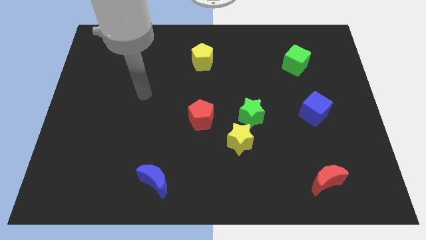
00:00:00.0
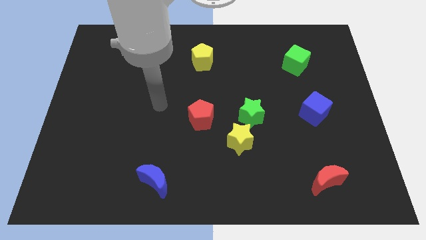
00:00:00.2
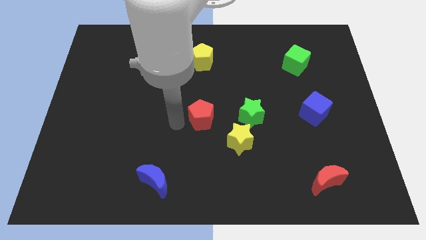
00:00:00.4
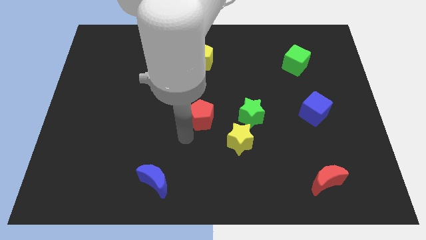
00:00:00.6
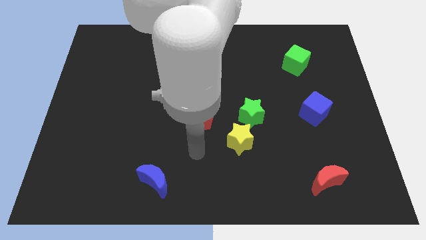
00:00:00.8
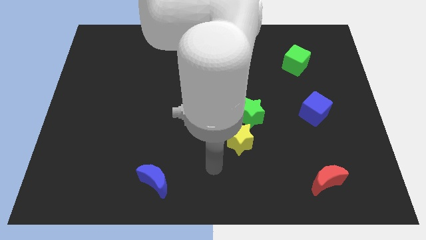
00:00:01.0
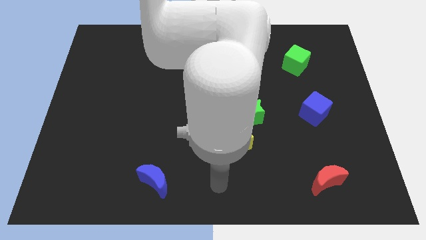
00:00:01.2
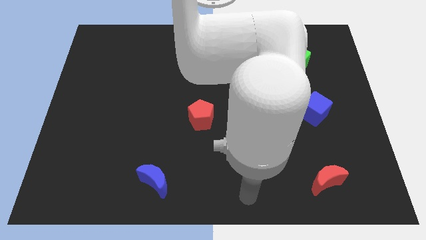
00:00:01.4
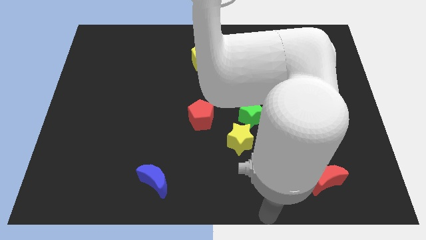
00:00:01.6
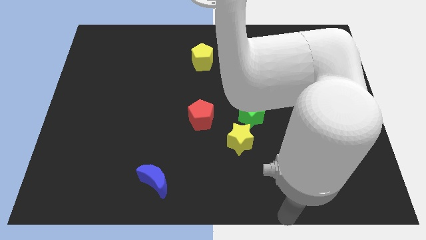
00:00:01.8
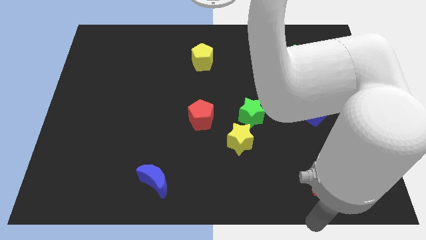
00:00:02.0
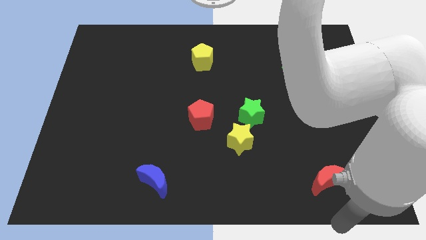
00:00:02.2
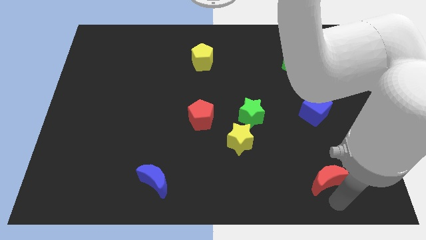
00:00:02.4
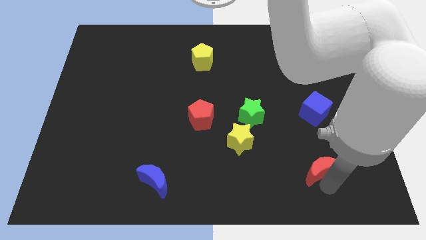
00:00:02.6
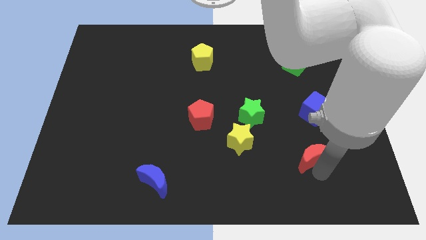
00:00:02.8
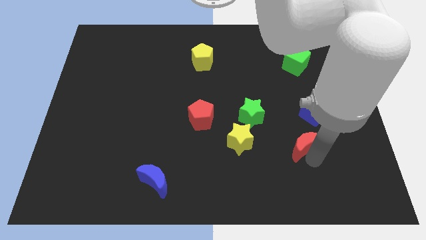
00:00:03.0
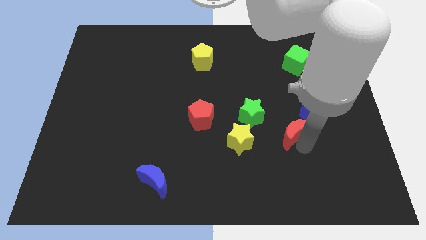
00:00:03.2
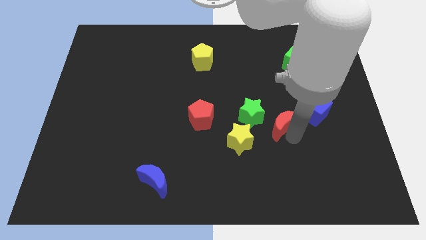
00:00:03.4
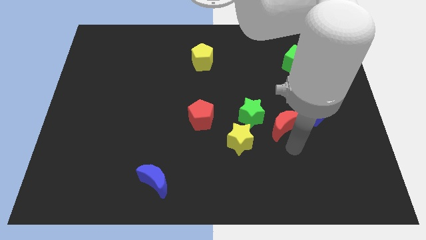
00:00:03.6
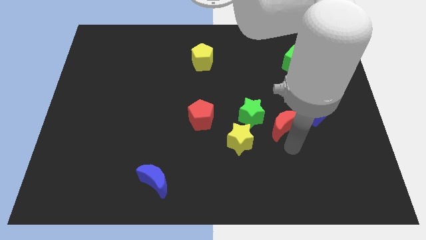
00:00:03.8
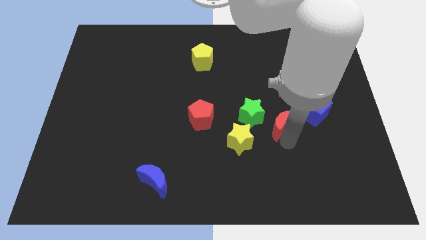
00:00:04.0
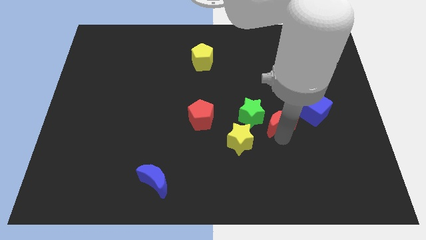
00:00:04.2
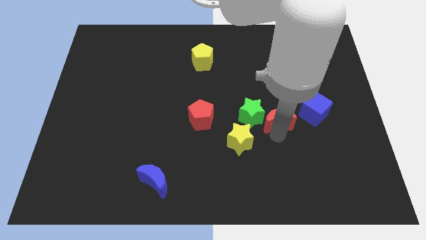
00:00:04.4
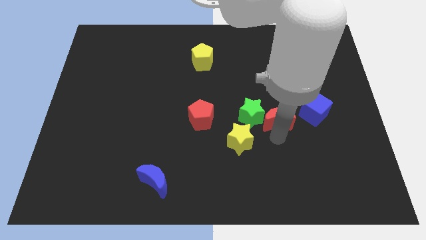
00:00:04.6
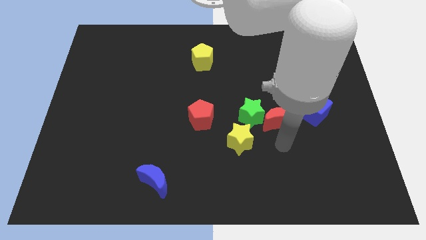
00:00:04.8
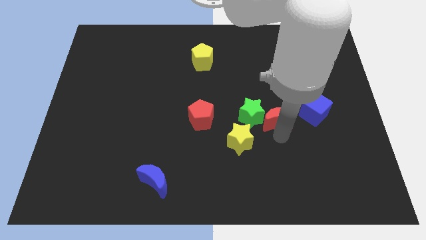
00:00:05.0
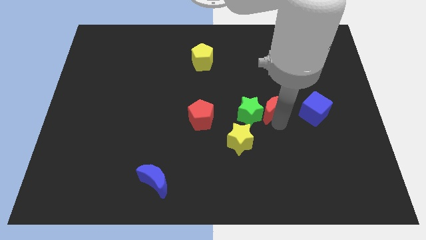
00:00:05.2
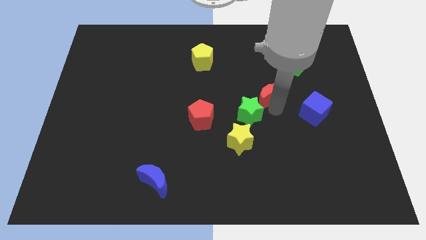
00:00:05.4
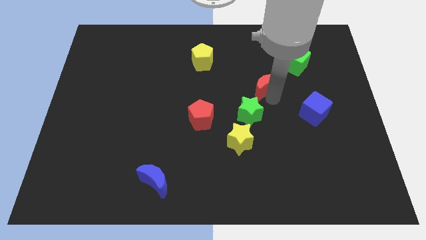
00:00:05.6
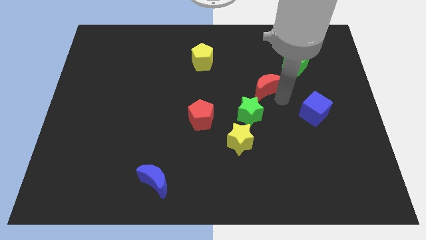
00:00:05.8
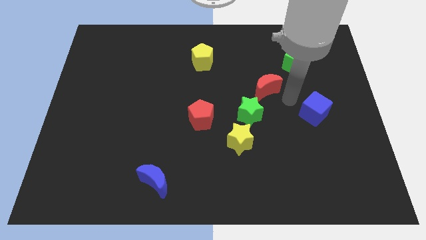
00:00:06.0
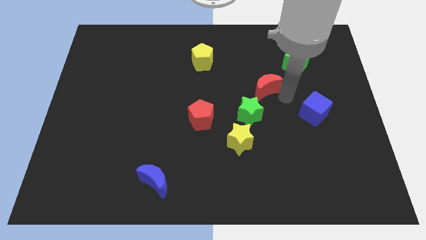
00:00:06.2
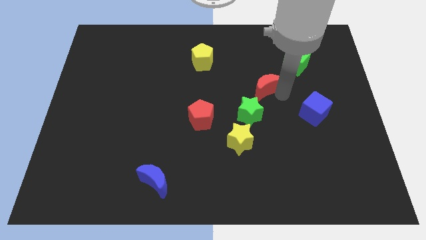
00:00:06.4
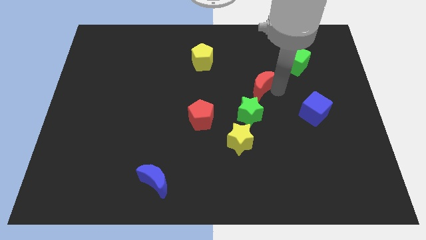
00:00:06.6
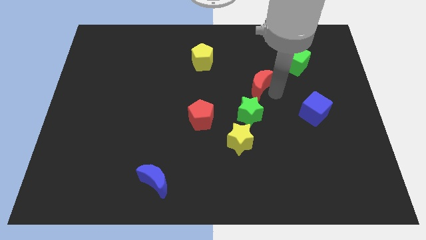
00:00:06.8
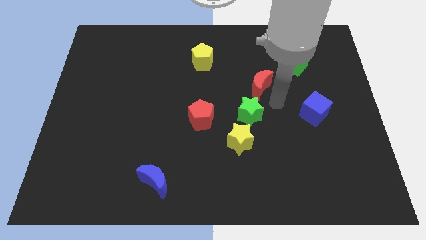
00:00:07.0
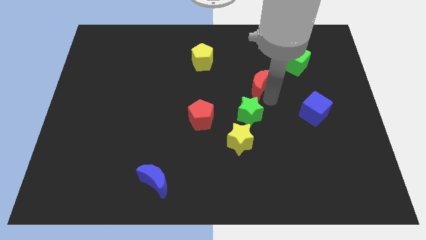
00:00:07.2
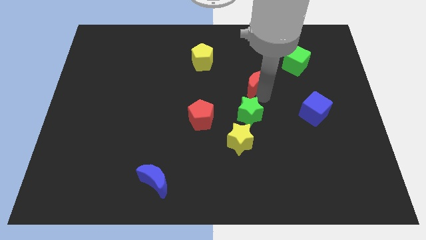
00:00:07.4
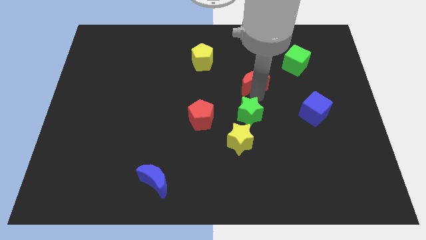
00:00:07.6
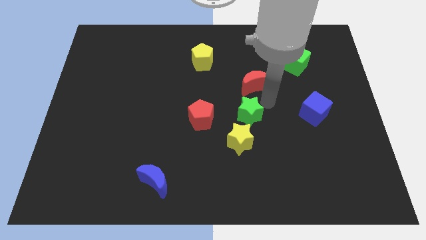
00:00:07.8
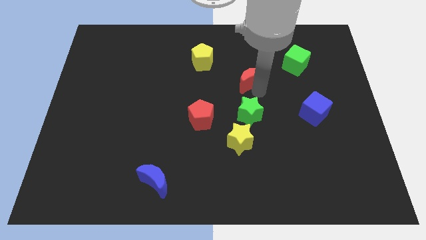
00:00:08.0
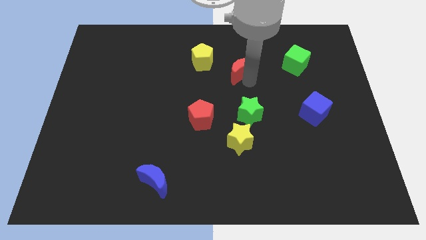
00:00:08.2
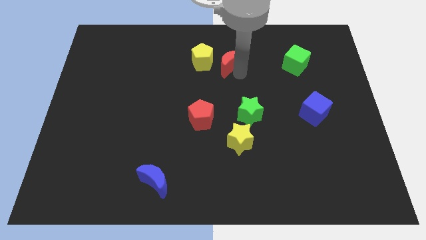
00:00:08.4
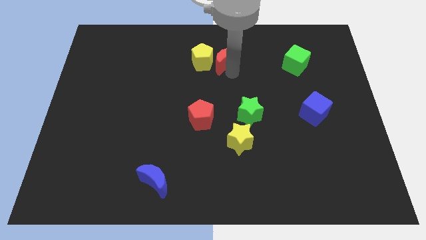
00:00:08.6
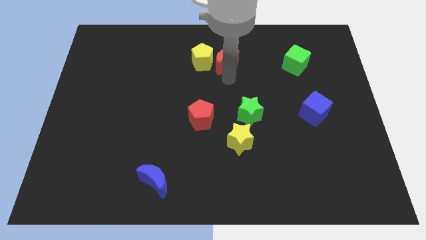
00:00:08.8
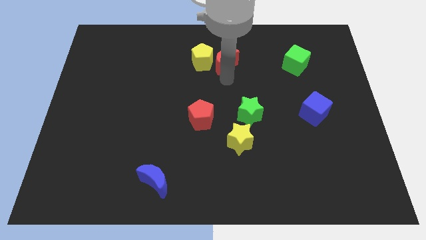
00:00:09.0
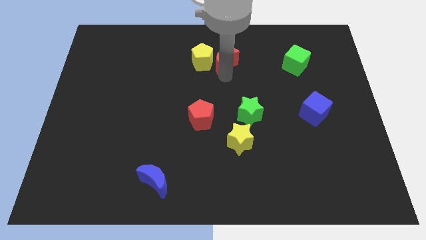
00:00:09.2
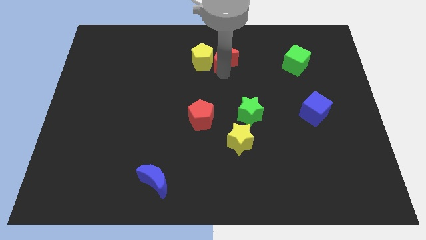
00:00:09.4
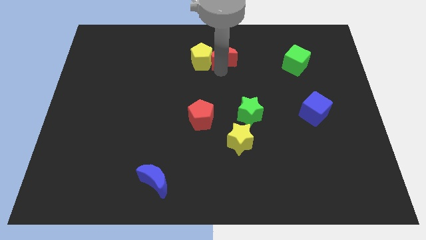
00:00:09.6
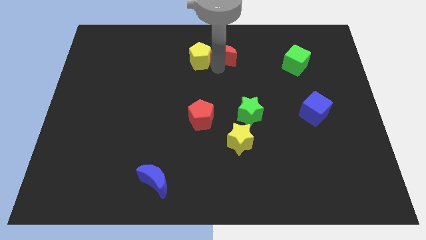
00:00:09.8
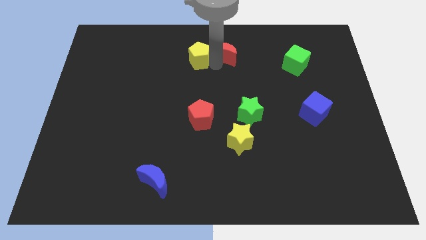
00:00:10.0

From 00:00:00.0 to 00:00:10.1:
push the red moon to the top side

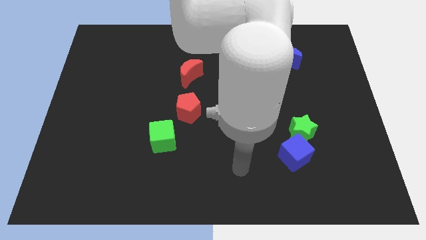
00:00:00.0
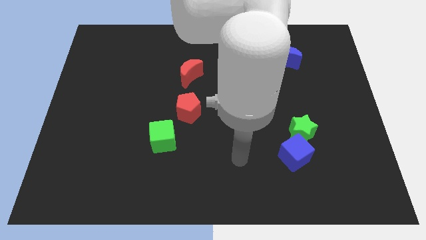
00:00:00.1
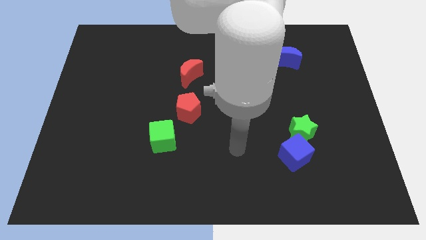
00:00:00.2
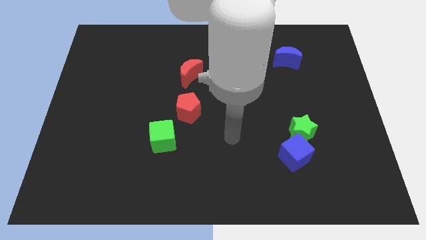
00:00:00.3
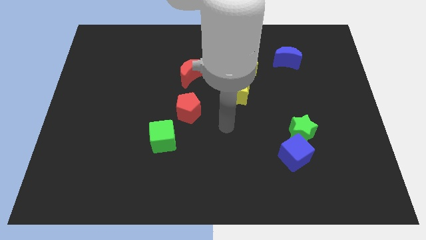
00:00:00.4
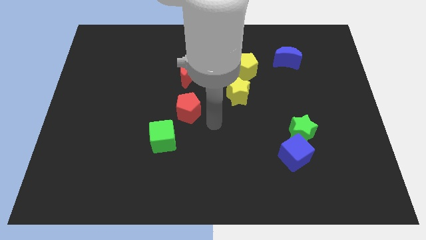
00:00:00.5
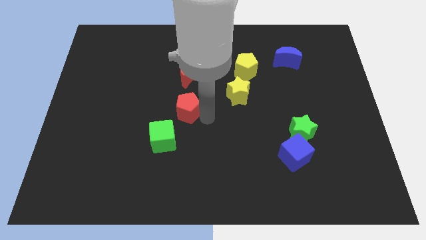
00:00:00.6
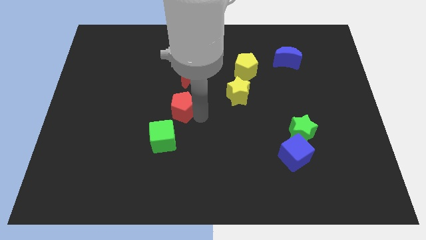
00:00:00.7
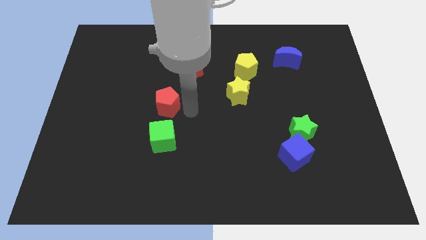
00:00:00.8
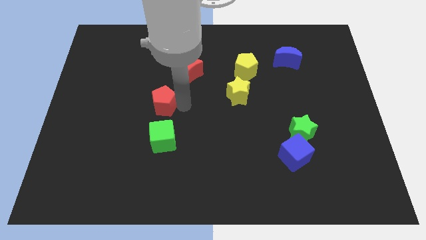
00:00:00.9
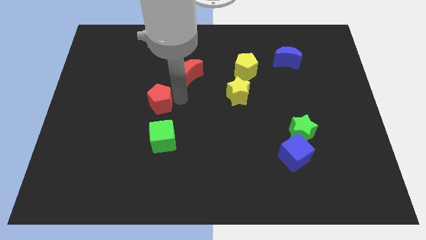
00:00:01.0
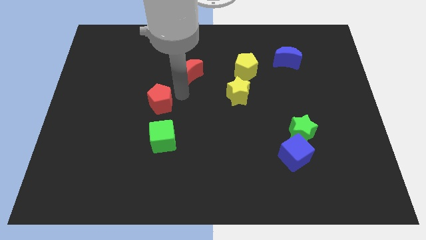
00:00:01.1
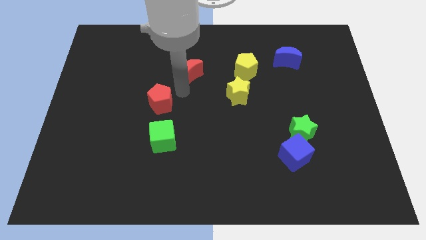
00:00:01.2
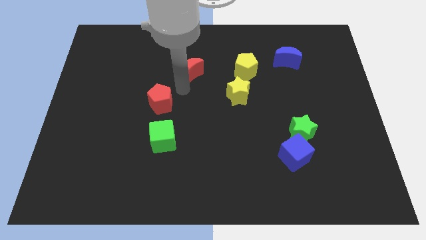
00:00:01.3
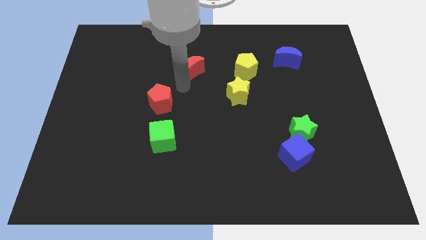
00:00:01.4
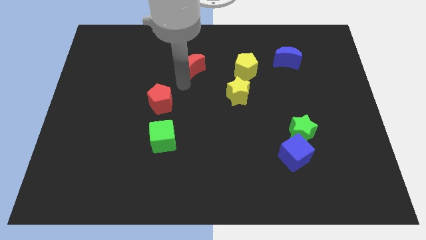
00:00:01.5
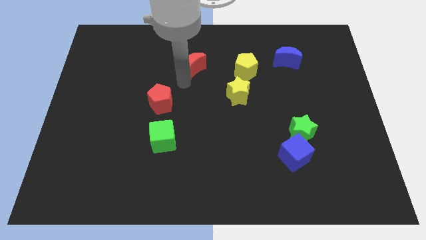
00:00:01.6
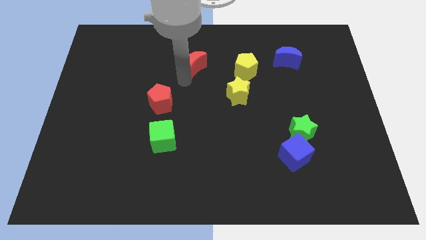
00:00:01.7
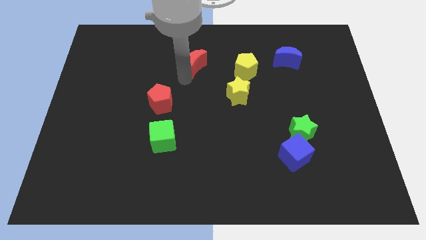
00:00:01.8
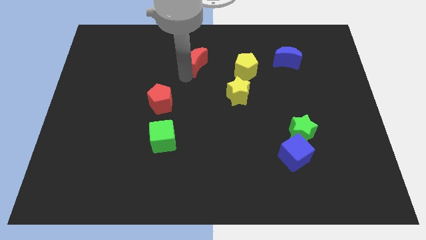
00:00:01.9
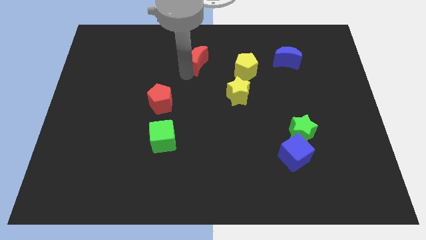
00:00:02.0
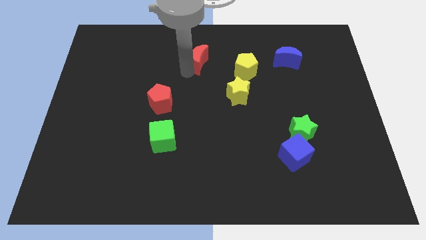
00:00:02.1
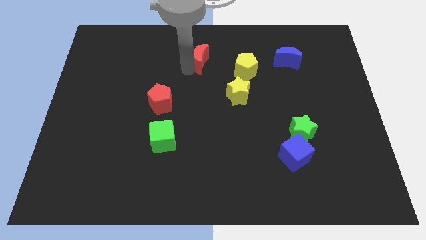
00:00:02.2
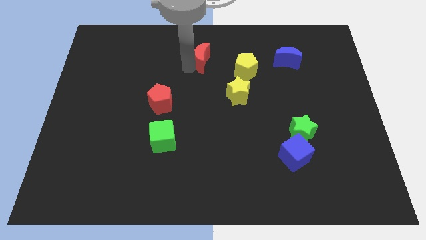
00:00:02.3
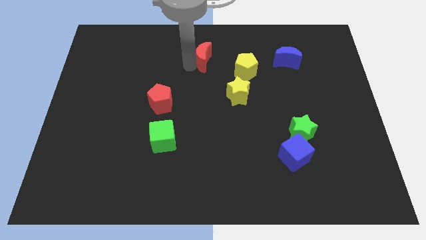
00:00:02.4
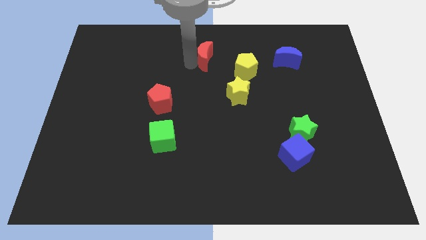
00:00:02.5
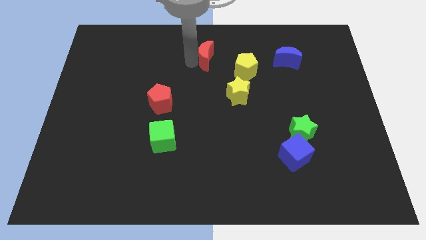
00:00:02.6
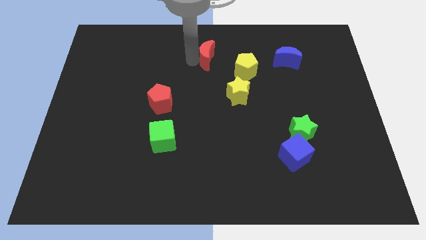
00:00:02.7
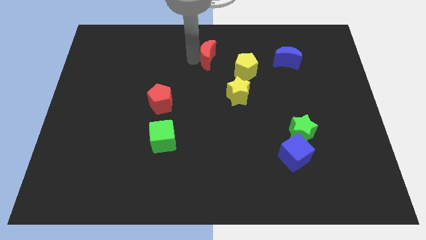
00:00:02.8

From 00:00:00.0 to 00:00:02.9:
slide the red moon to the top
